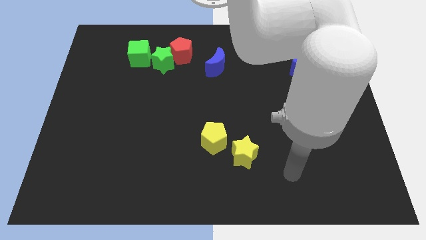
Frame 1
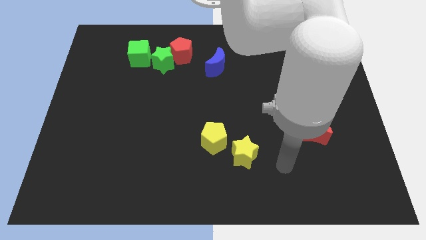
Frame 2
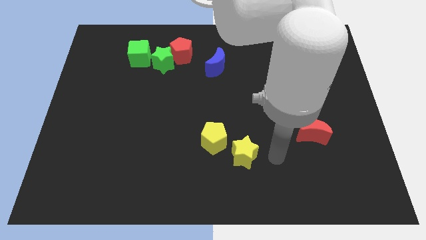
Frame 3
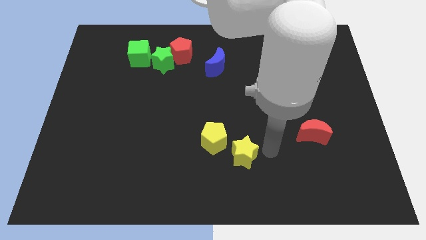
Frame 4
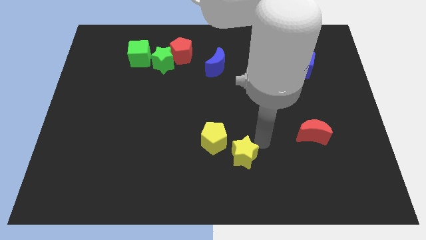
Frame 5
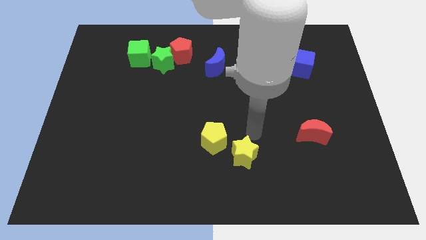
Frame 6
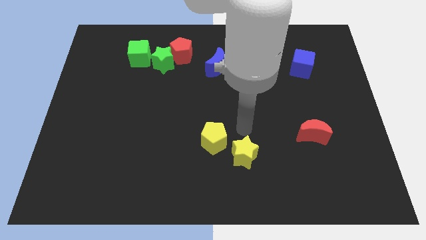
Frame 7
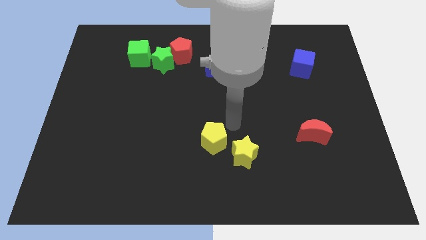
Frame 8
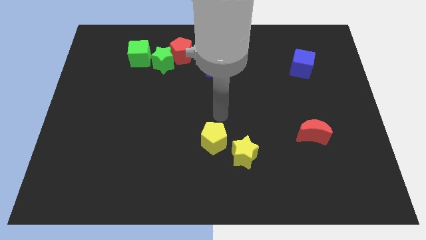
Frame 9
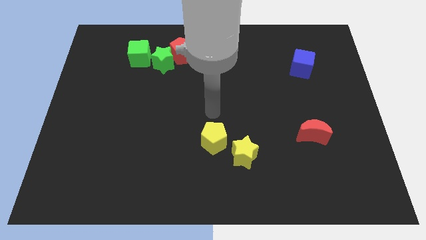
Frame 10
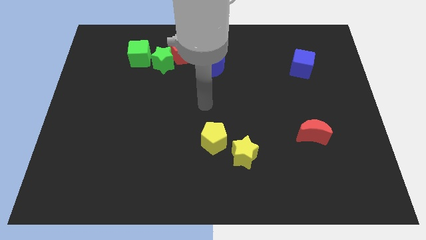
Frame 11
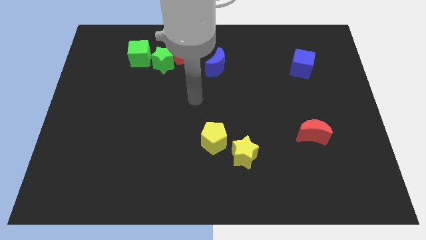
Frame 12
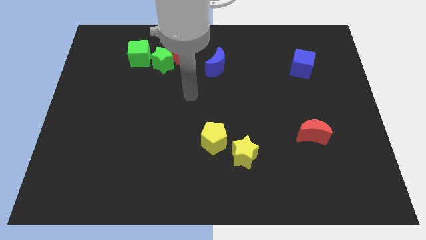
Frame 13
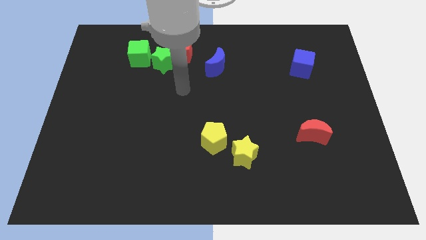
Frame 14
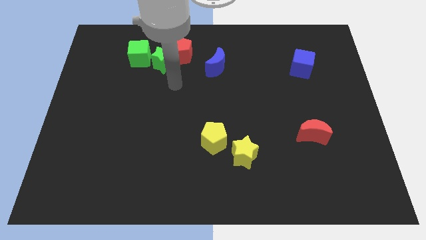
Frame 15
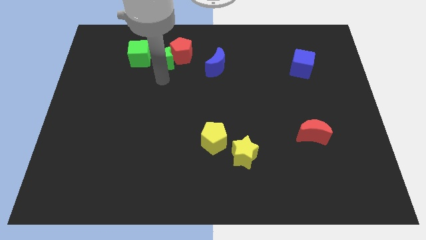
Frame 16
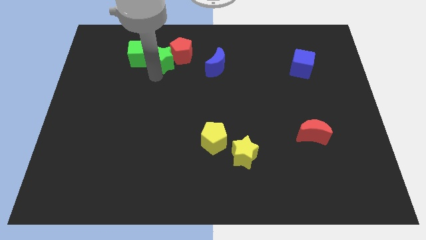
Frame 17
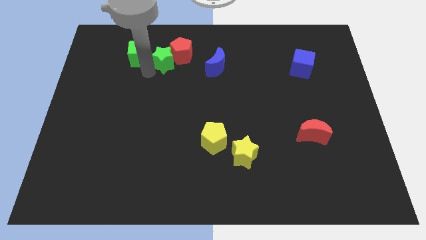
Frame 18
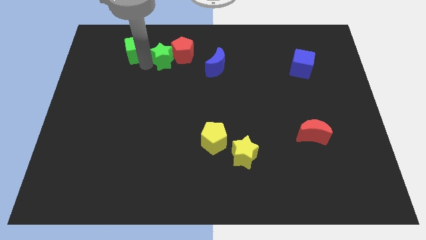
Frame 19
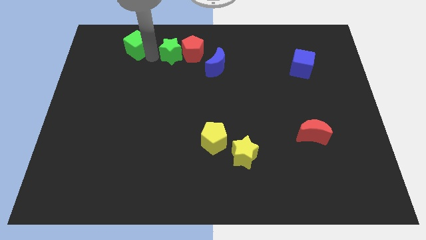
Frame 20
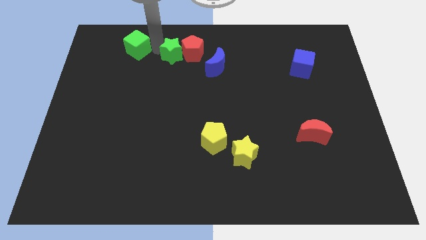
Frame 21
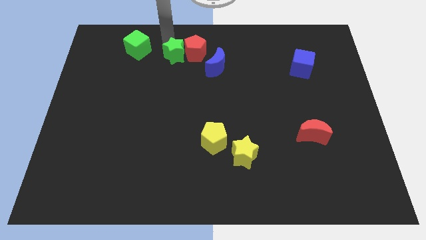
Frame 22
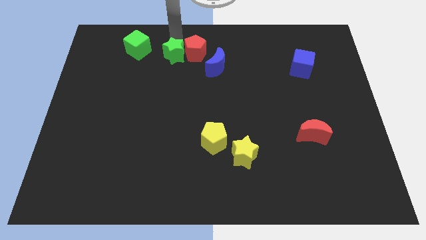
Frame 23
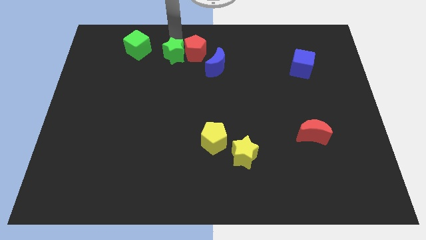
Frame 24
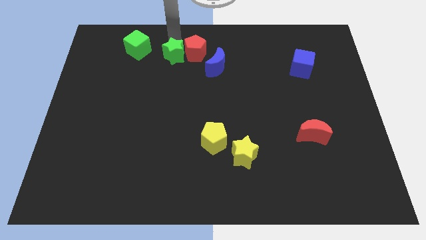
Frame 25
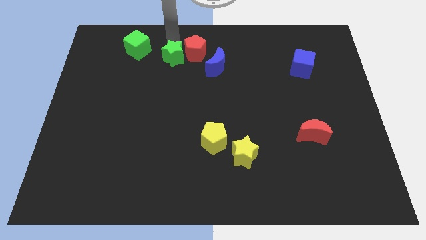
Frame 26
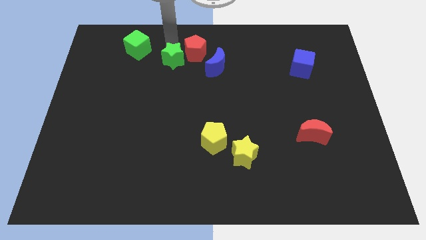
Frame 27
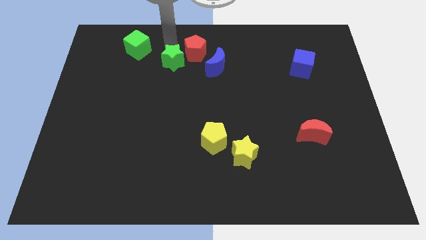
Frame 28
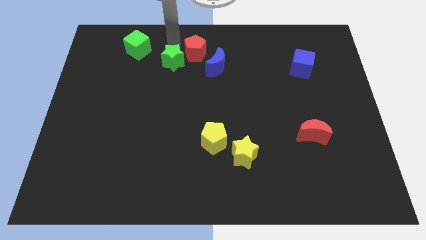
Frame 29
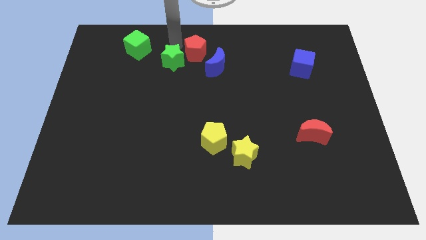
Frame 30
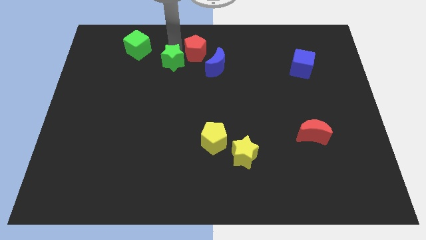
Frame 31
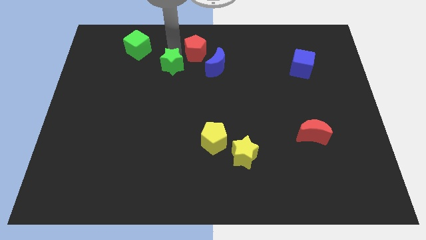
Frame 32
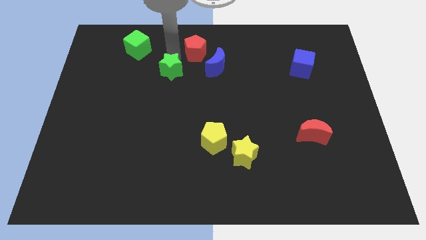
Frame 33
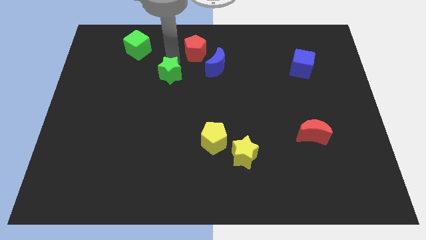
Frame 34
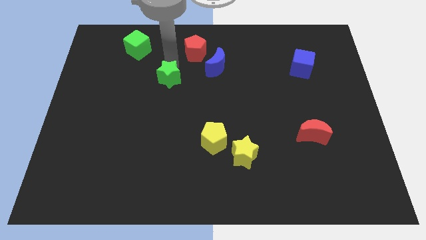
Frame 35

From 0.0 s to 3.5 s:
pull the green star apart from the red pentagon and green cube

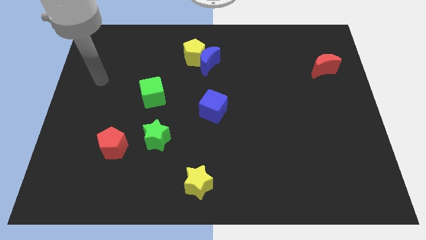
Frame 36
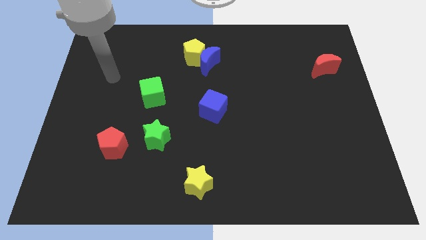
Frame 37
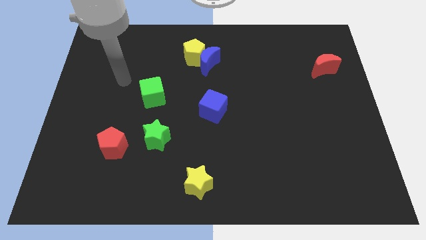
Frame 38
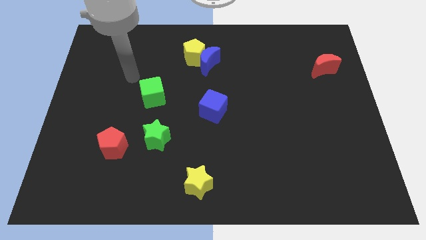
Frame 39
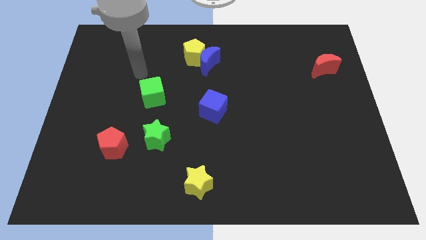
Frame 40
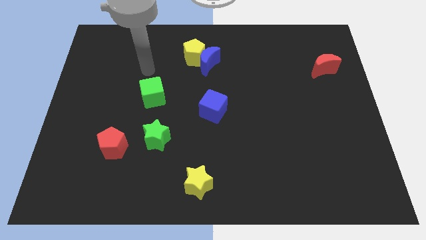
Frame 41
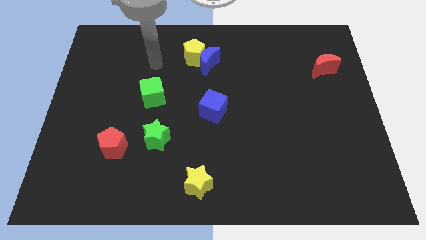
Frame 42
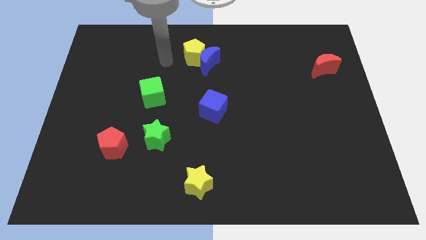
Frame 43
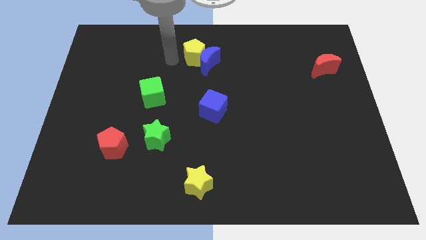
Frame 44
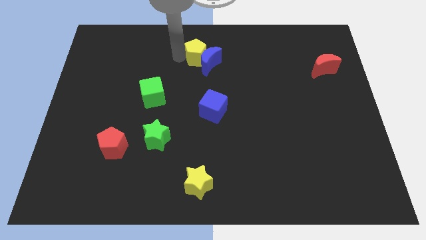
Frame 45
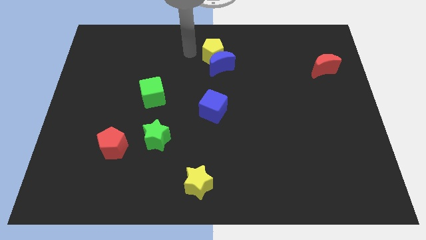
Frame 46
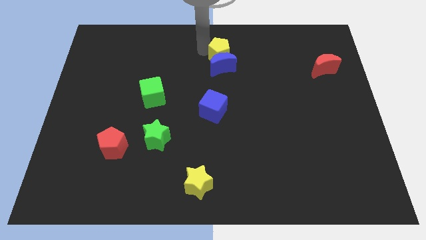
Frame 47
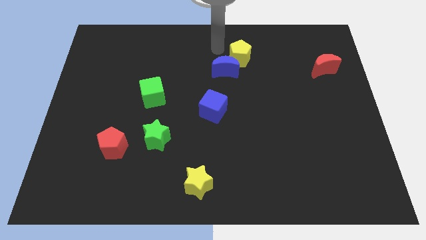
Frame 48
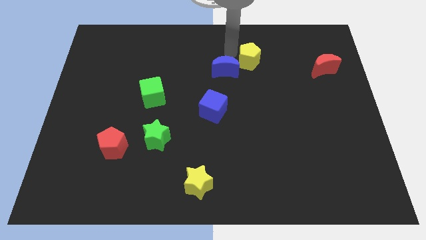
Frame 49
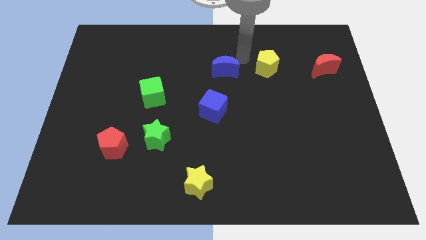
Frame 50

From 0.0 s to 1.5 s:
separate the blue moon from the yellow pentagon

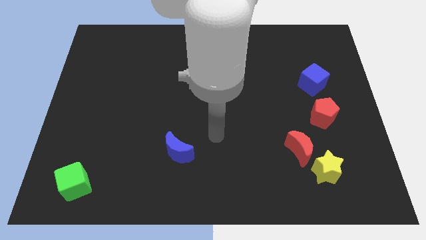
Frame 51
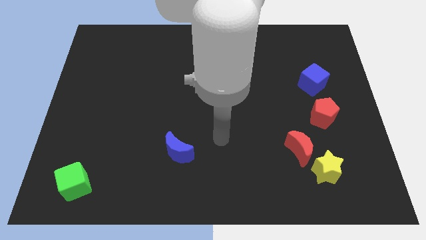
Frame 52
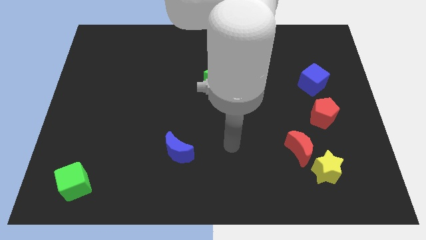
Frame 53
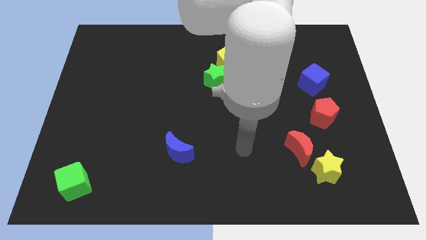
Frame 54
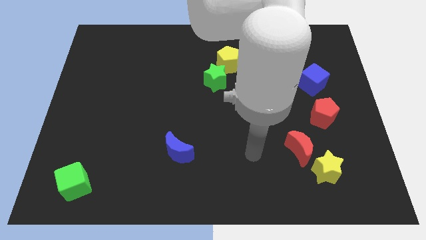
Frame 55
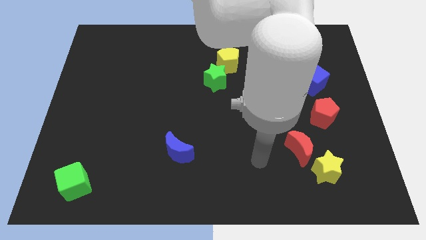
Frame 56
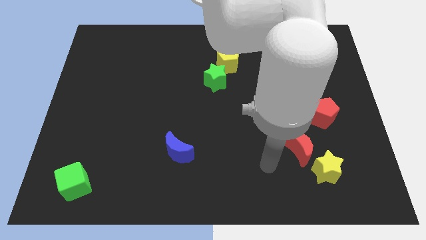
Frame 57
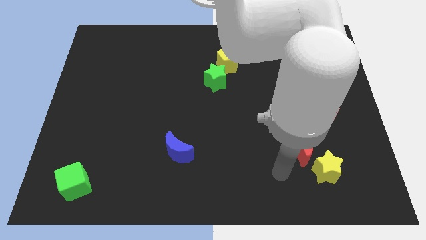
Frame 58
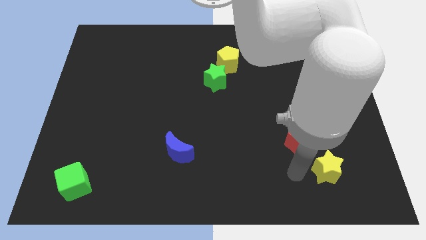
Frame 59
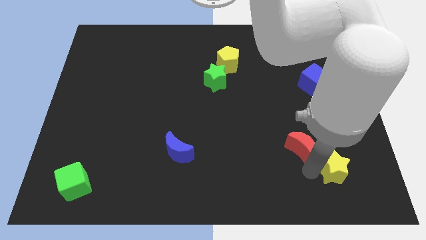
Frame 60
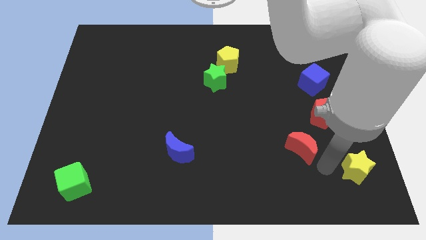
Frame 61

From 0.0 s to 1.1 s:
separate the red moon from the yellow star

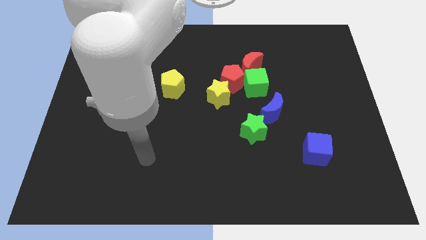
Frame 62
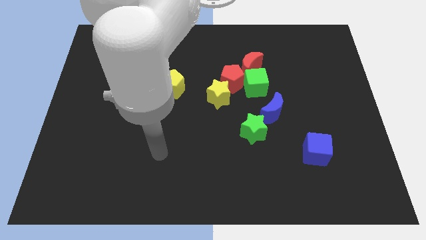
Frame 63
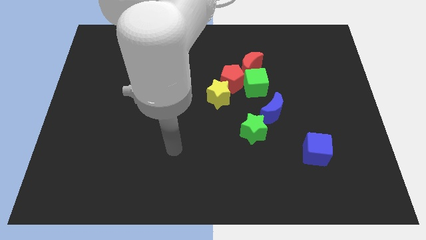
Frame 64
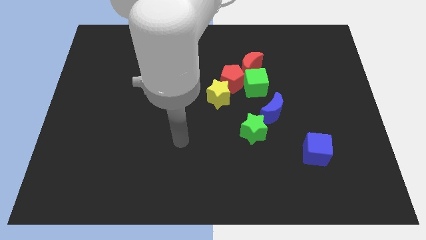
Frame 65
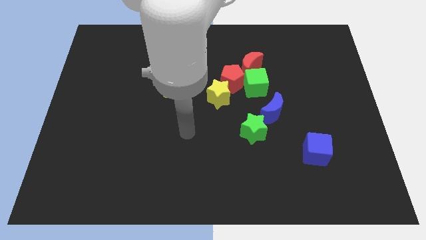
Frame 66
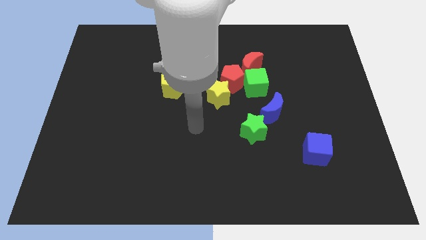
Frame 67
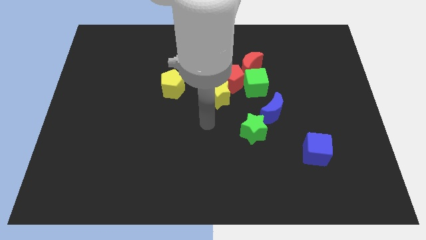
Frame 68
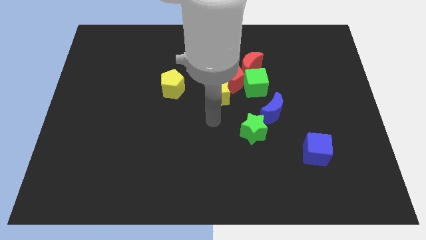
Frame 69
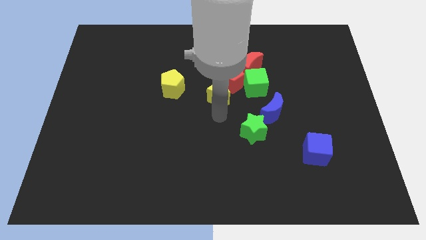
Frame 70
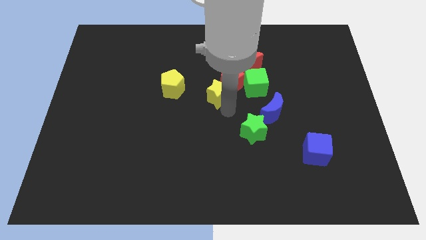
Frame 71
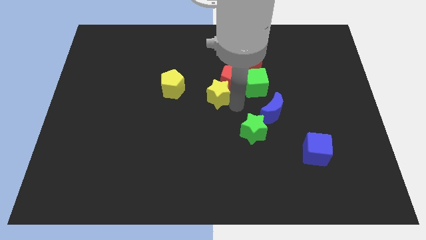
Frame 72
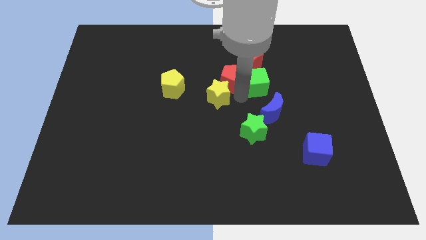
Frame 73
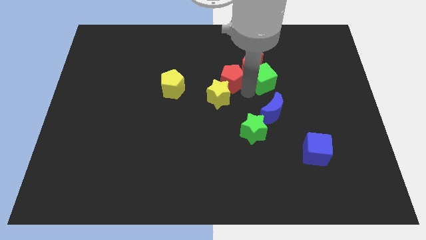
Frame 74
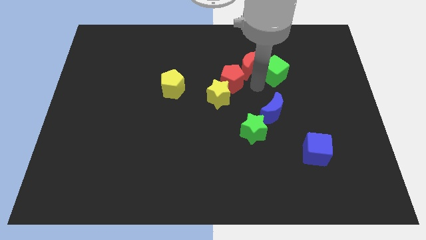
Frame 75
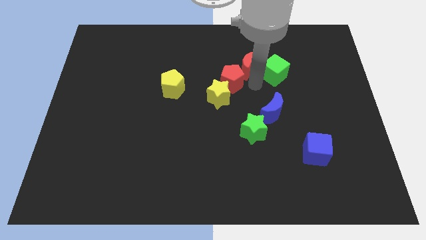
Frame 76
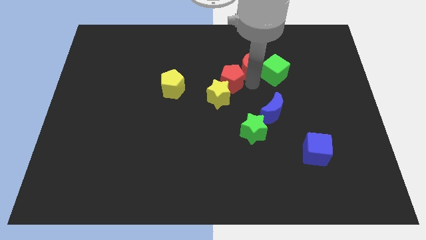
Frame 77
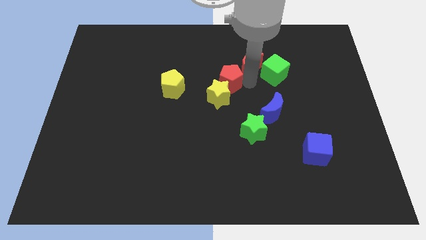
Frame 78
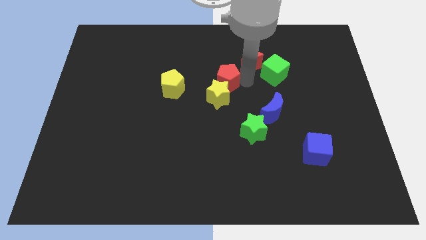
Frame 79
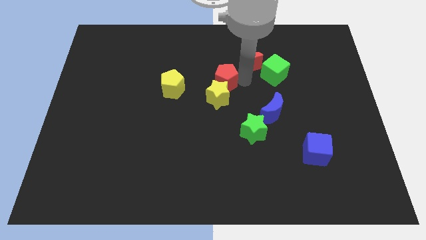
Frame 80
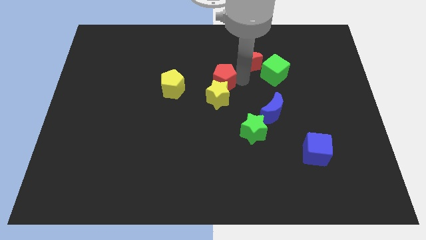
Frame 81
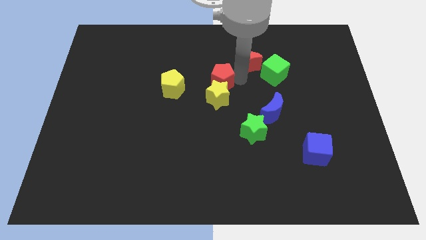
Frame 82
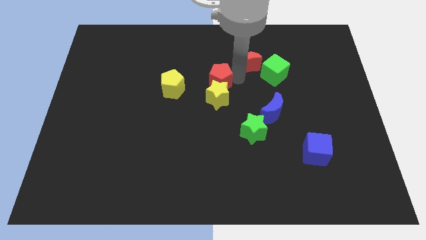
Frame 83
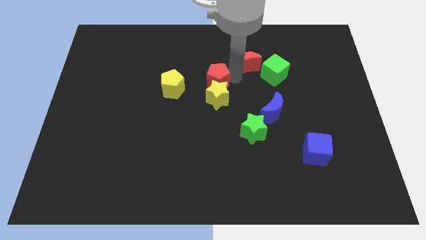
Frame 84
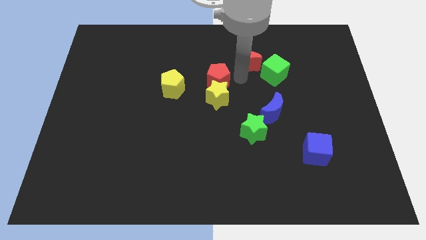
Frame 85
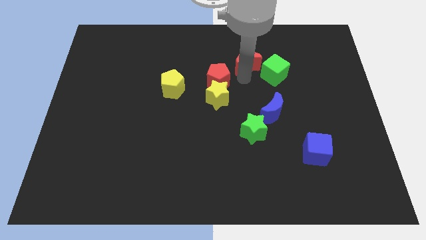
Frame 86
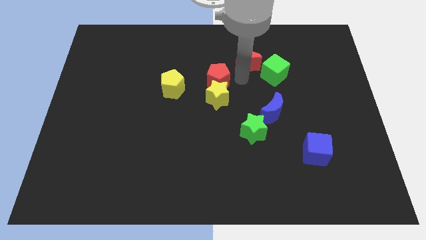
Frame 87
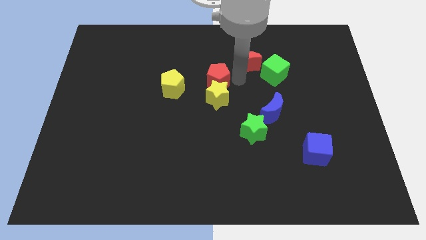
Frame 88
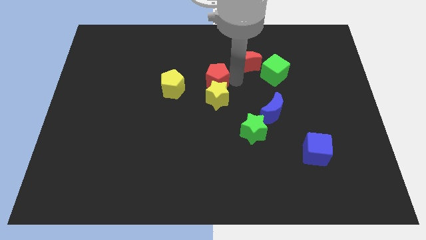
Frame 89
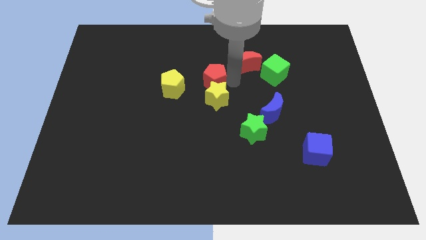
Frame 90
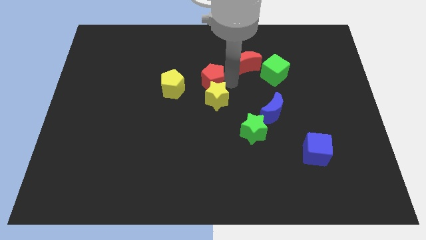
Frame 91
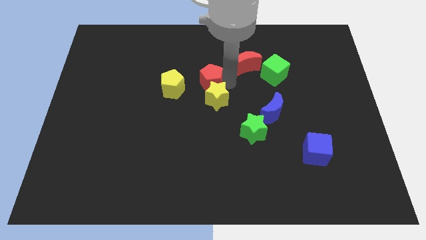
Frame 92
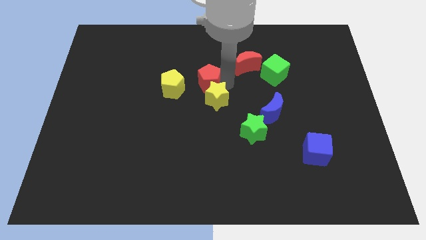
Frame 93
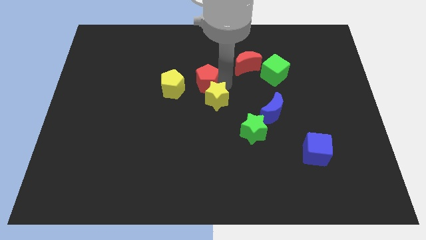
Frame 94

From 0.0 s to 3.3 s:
move the red pentagon away from the yellow star, green cube, and red moon
